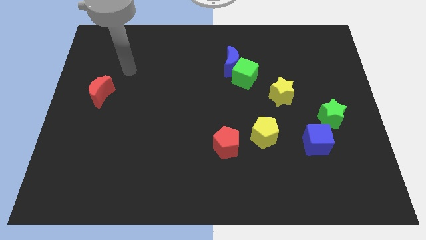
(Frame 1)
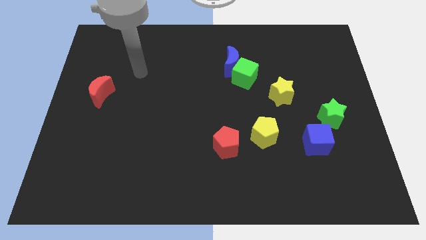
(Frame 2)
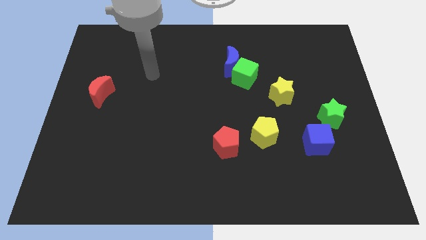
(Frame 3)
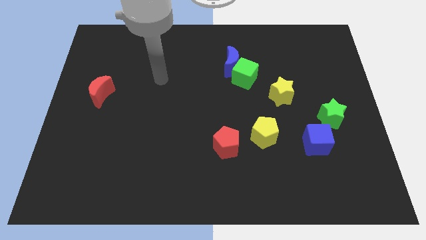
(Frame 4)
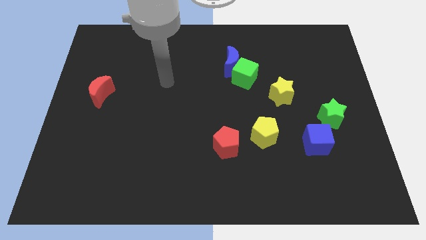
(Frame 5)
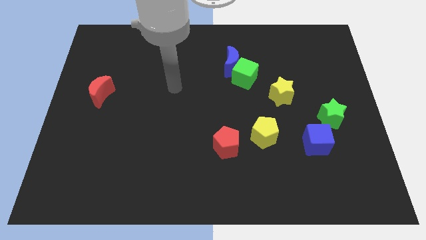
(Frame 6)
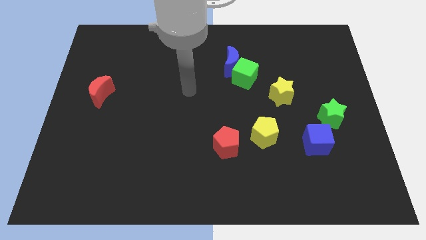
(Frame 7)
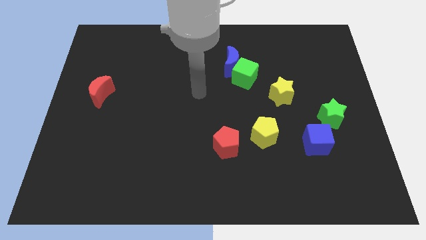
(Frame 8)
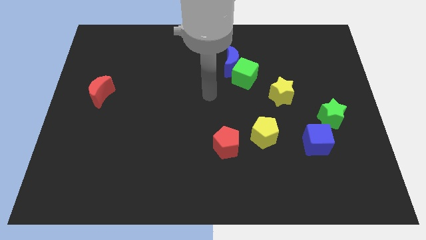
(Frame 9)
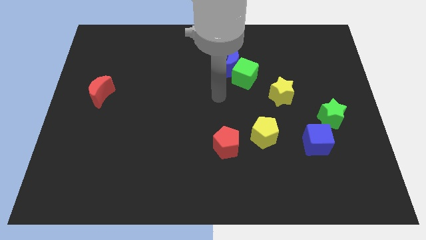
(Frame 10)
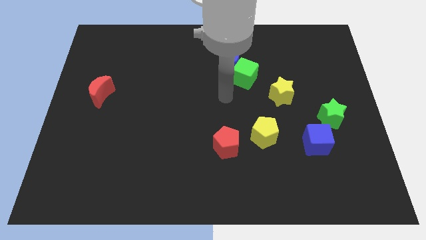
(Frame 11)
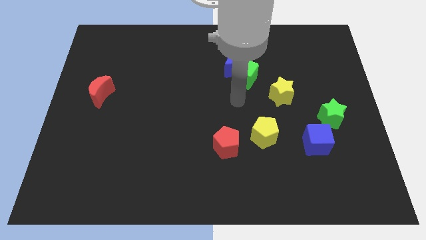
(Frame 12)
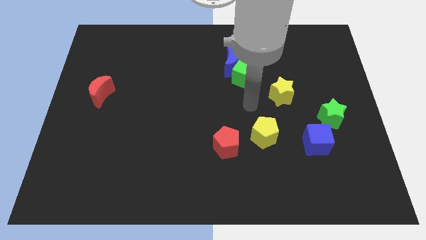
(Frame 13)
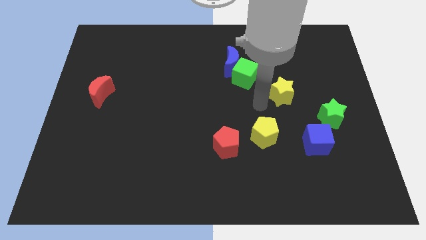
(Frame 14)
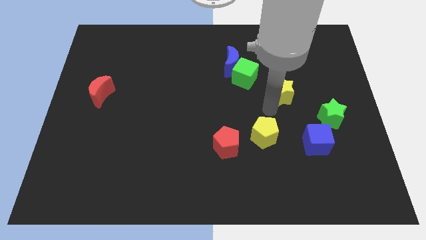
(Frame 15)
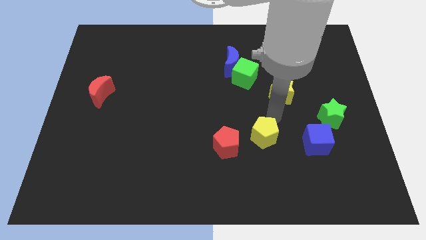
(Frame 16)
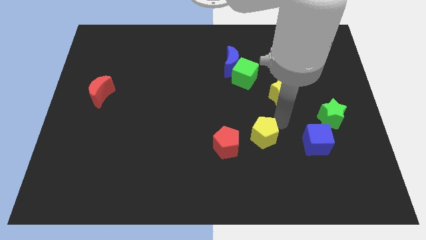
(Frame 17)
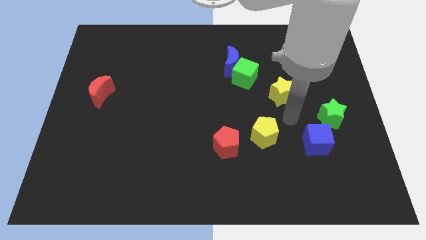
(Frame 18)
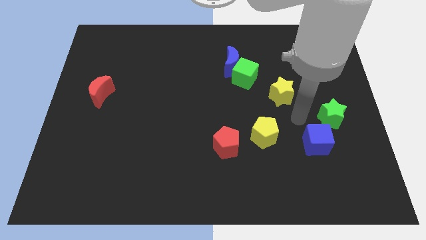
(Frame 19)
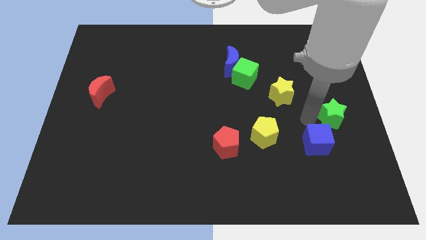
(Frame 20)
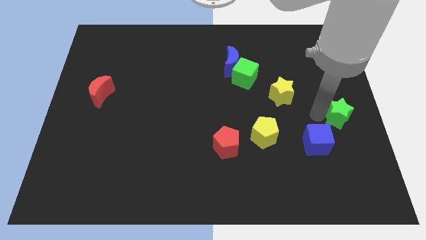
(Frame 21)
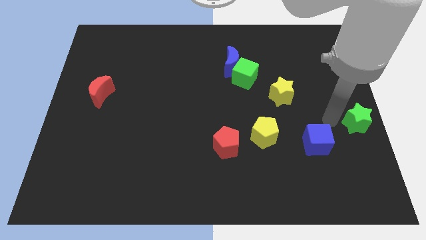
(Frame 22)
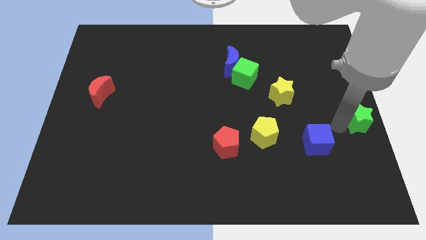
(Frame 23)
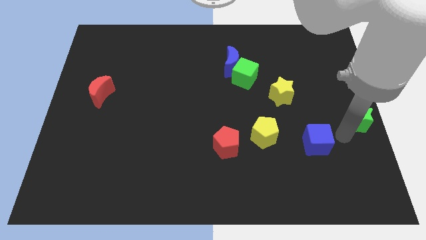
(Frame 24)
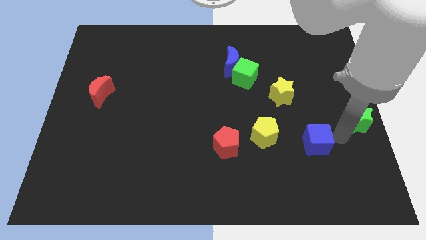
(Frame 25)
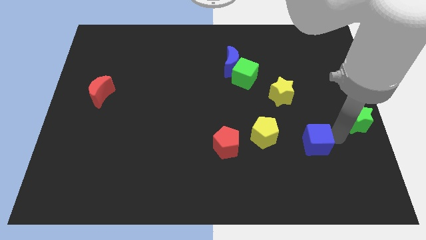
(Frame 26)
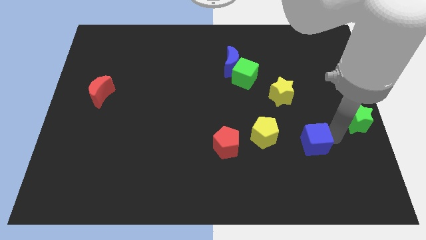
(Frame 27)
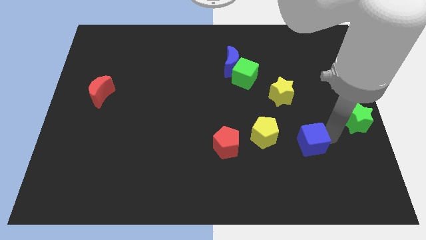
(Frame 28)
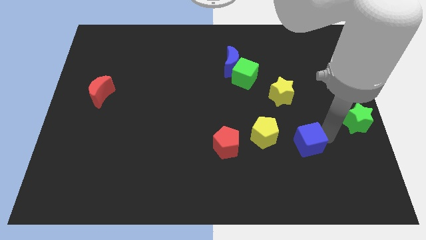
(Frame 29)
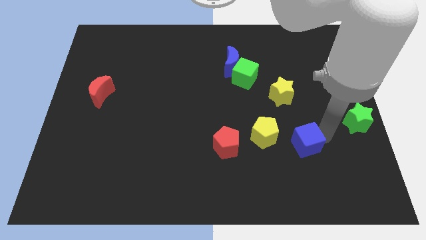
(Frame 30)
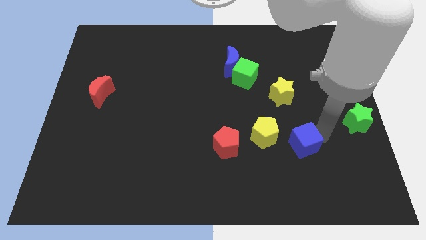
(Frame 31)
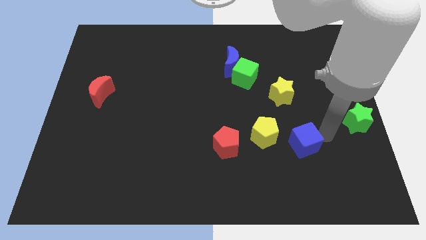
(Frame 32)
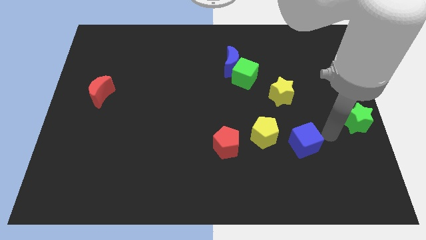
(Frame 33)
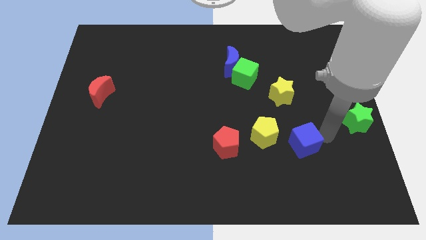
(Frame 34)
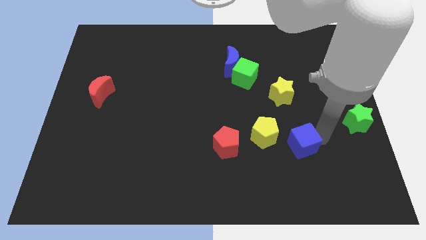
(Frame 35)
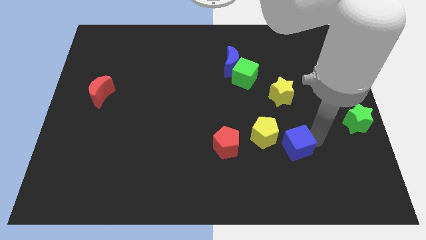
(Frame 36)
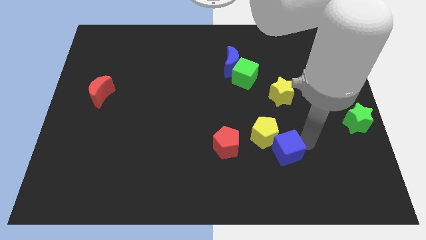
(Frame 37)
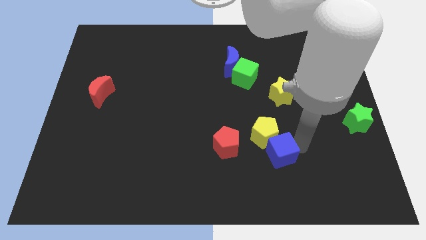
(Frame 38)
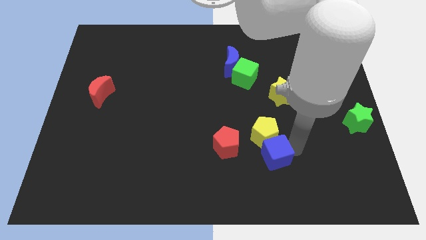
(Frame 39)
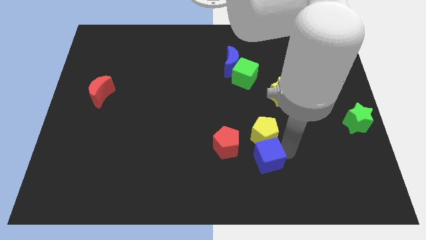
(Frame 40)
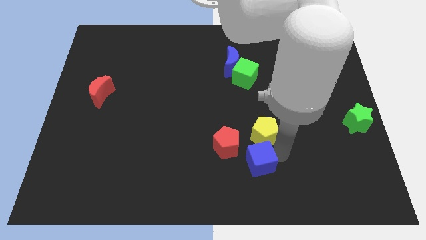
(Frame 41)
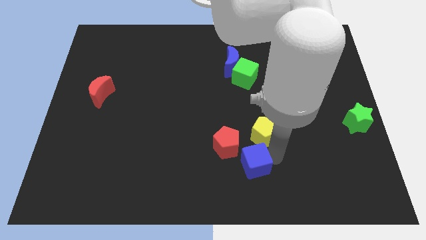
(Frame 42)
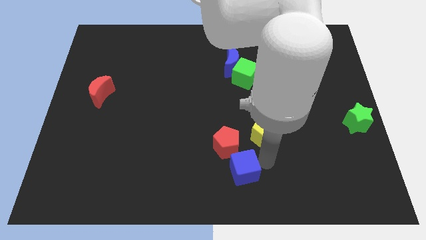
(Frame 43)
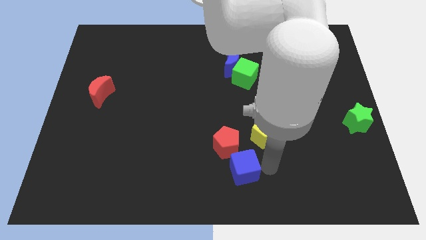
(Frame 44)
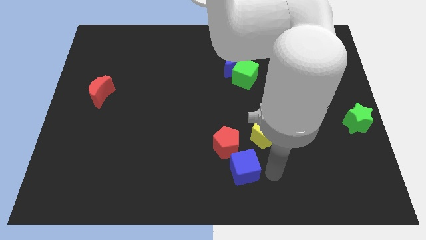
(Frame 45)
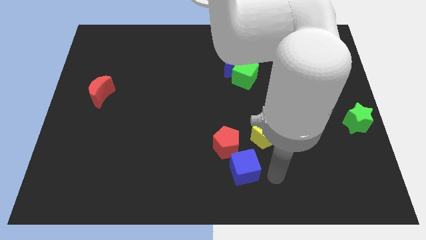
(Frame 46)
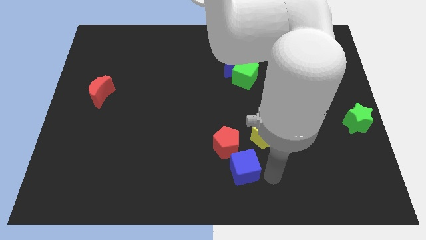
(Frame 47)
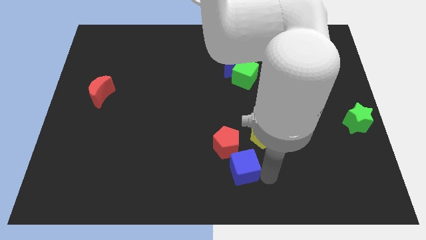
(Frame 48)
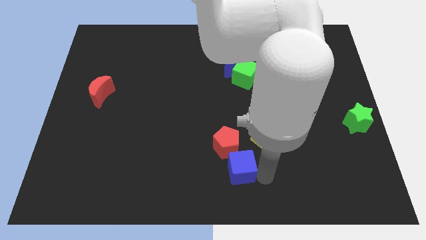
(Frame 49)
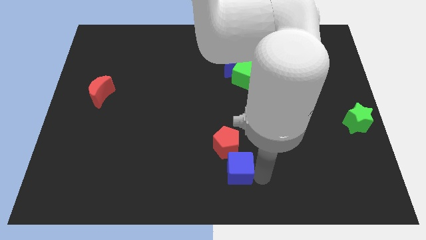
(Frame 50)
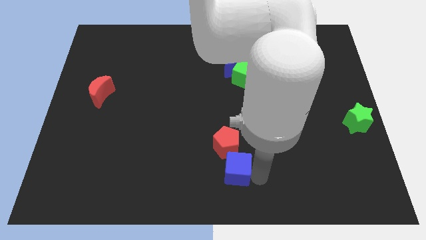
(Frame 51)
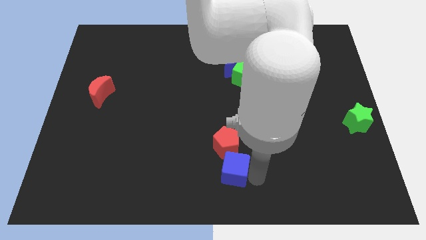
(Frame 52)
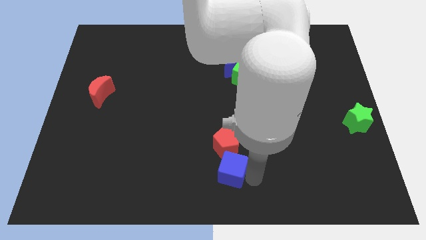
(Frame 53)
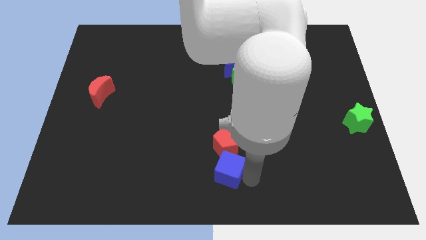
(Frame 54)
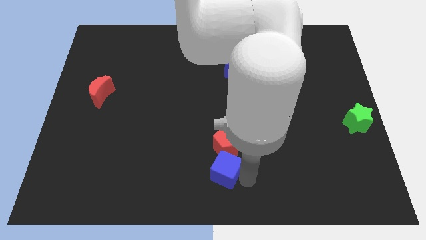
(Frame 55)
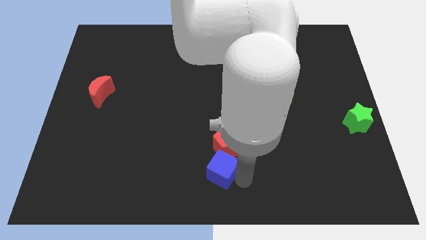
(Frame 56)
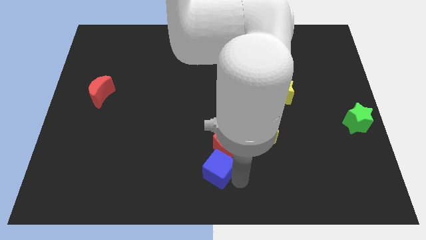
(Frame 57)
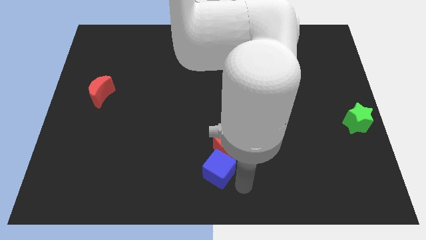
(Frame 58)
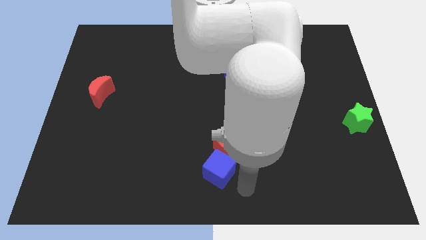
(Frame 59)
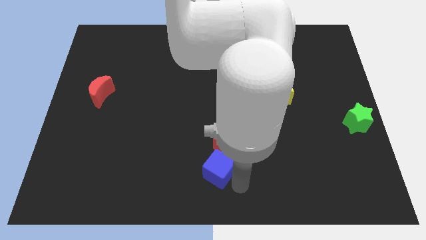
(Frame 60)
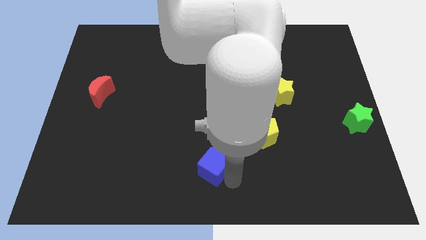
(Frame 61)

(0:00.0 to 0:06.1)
push the blue cube to the left

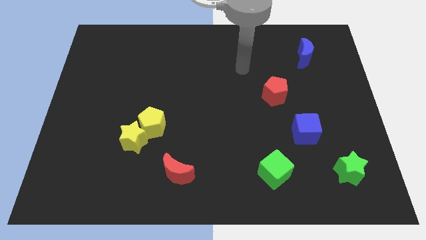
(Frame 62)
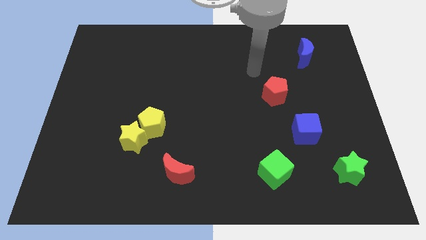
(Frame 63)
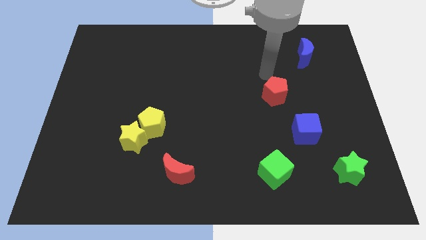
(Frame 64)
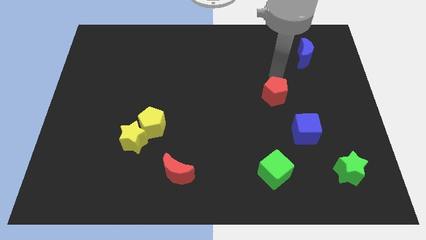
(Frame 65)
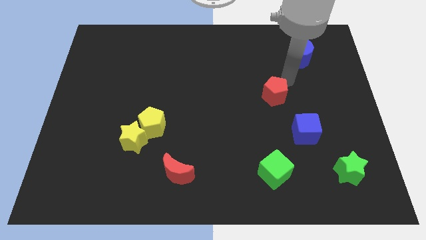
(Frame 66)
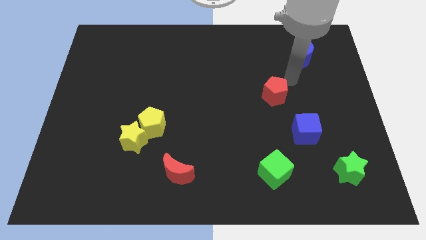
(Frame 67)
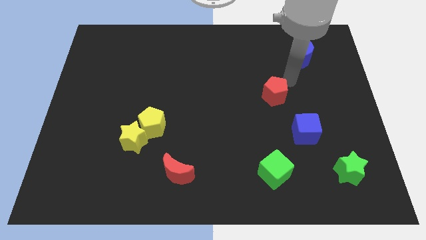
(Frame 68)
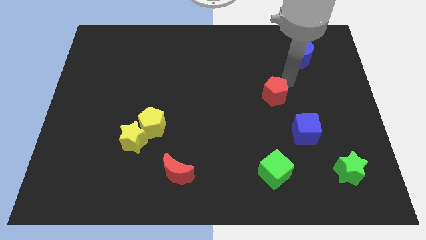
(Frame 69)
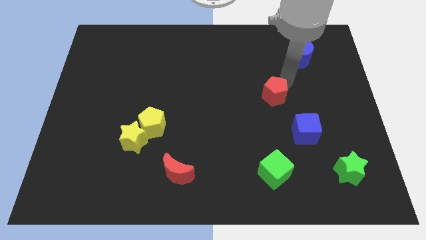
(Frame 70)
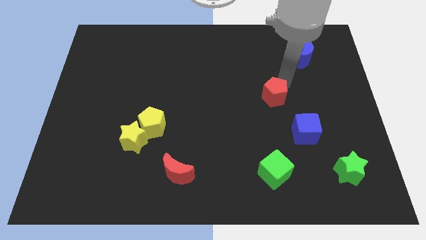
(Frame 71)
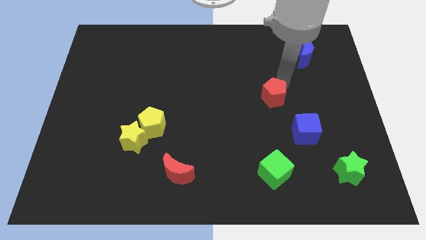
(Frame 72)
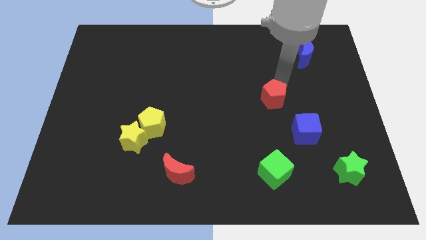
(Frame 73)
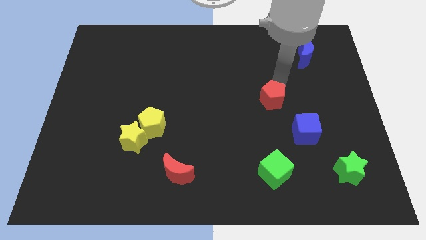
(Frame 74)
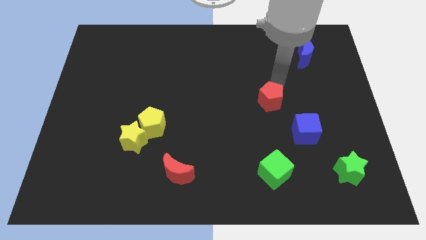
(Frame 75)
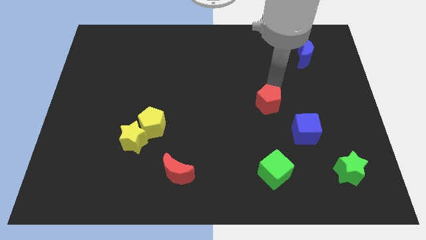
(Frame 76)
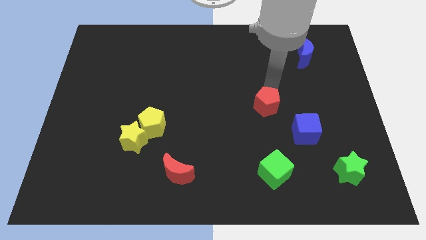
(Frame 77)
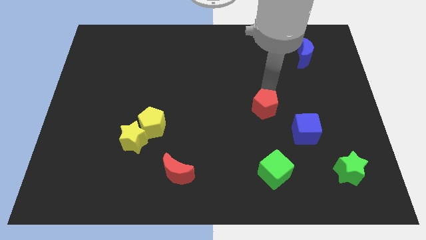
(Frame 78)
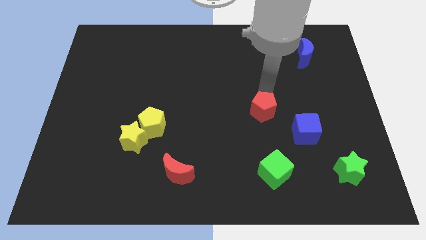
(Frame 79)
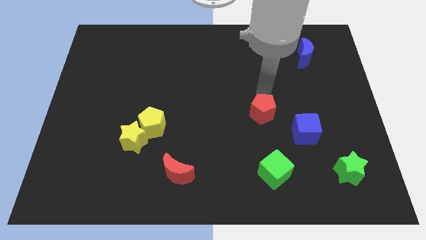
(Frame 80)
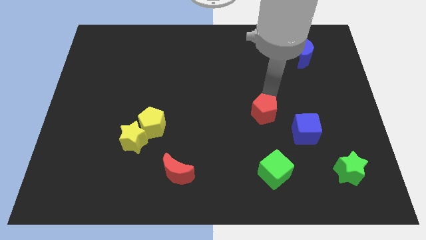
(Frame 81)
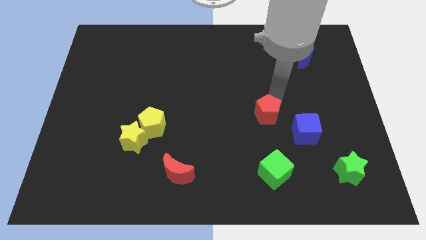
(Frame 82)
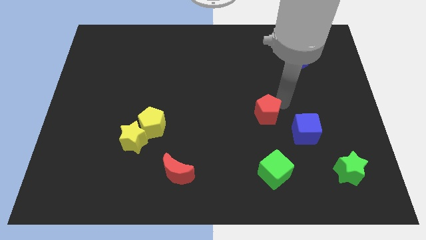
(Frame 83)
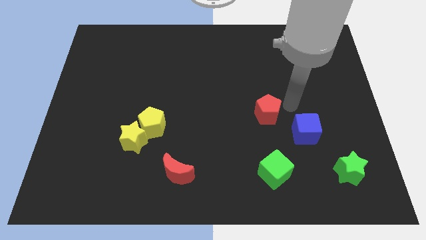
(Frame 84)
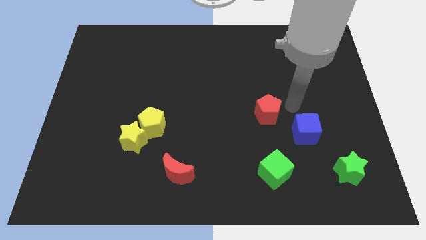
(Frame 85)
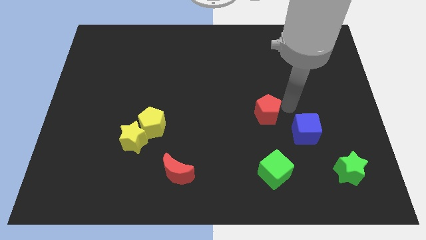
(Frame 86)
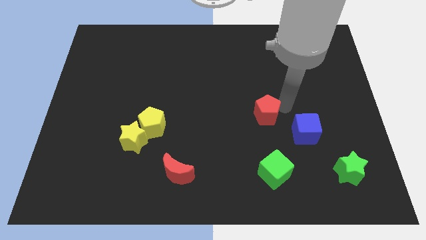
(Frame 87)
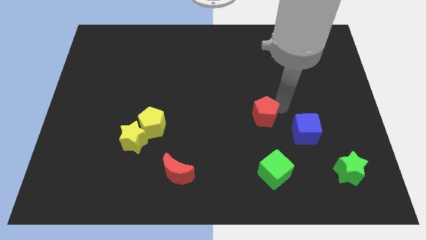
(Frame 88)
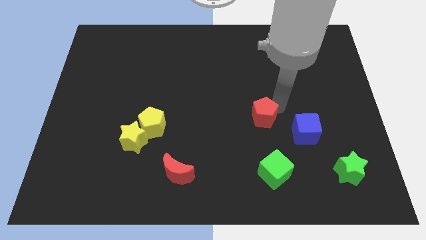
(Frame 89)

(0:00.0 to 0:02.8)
slide the red pentagon slightly down and then to the left
